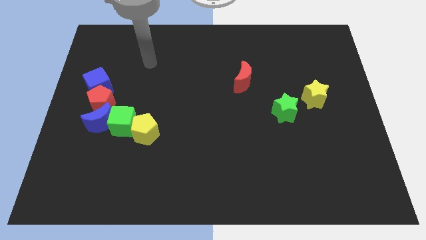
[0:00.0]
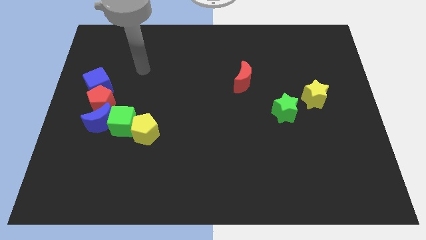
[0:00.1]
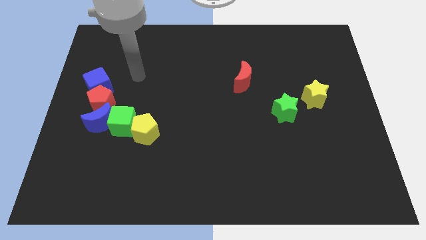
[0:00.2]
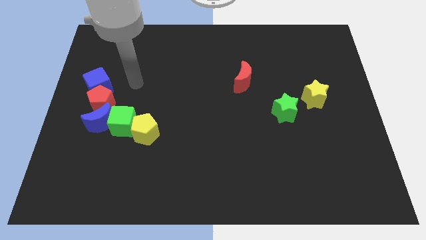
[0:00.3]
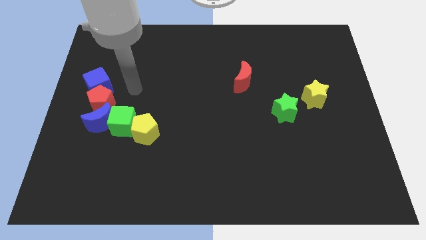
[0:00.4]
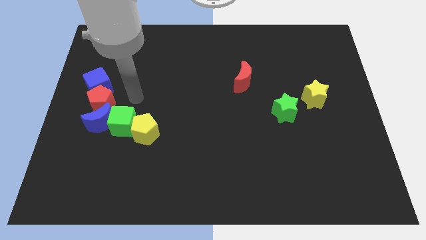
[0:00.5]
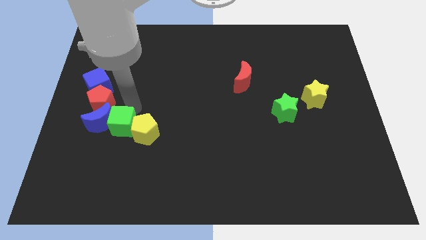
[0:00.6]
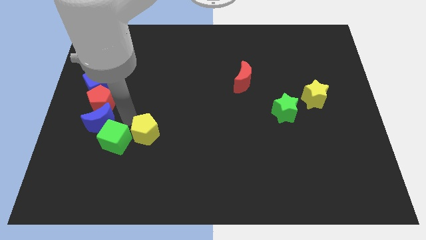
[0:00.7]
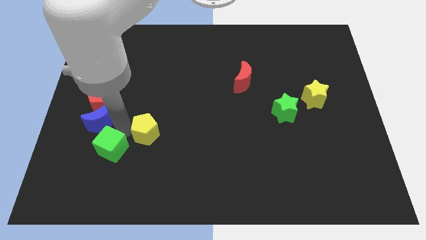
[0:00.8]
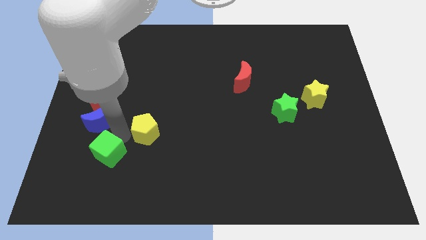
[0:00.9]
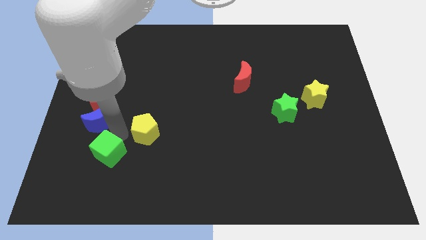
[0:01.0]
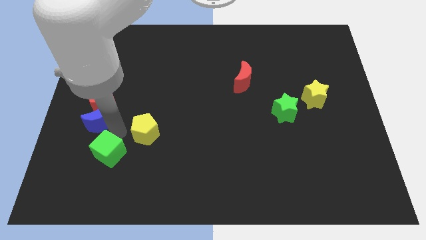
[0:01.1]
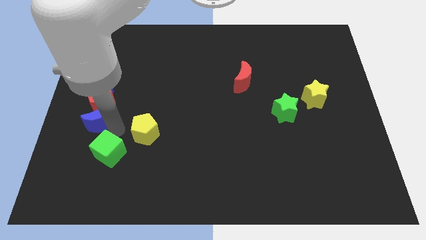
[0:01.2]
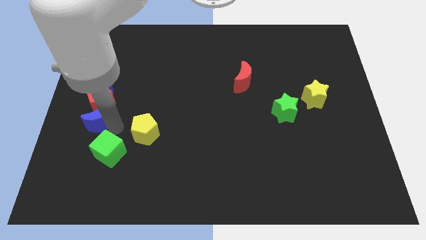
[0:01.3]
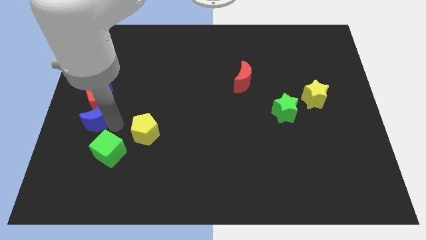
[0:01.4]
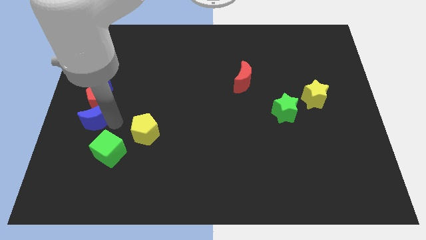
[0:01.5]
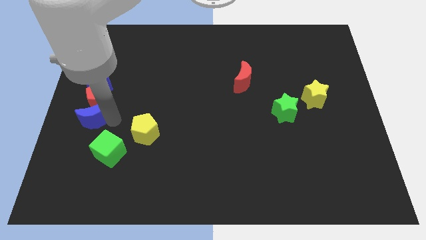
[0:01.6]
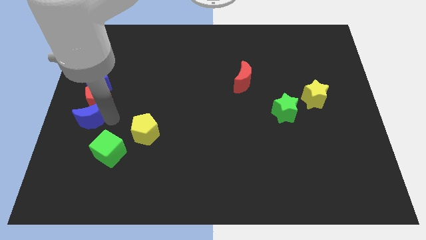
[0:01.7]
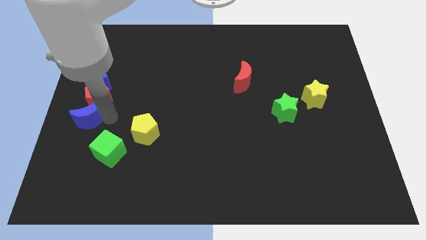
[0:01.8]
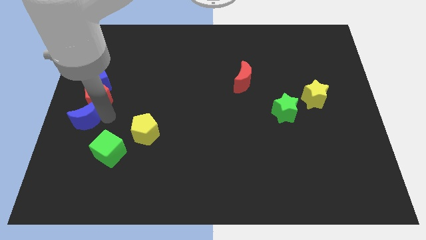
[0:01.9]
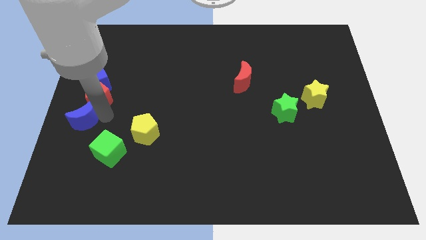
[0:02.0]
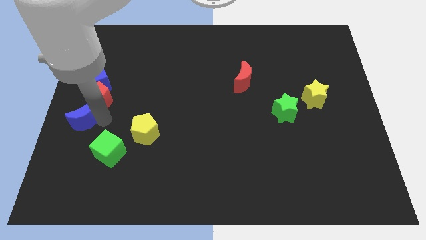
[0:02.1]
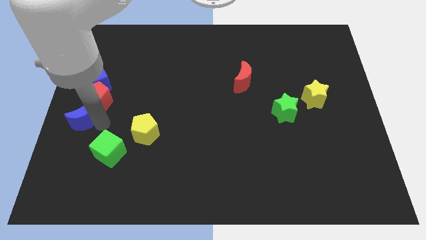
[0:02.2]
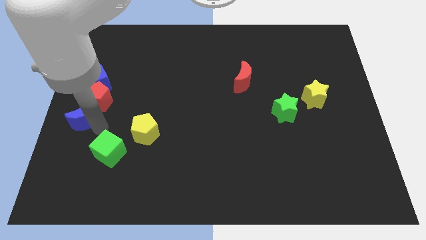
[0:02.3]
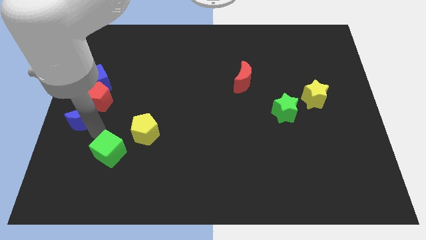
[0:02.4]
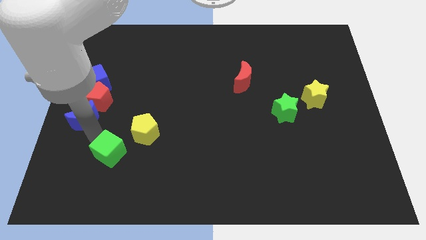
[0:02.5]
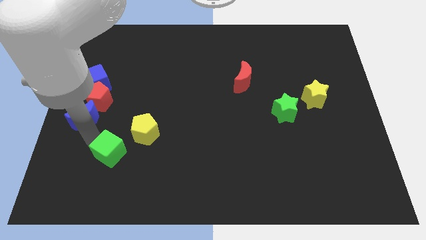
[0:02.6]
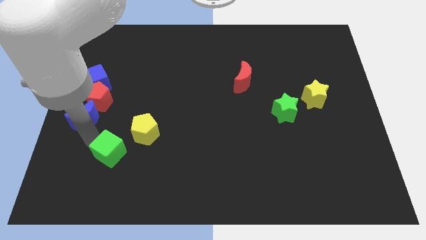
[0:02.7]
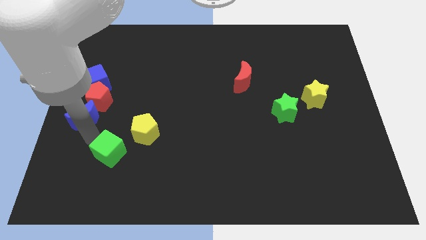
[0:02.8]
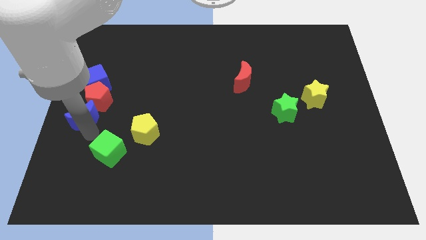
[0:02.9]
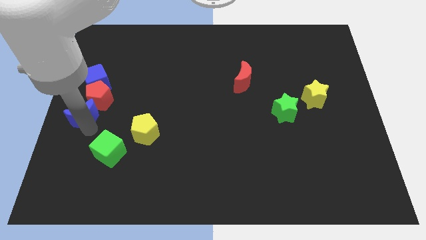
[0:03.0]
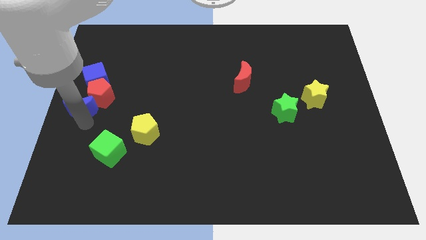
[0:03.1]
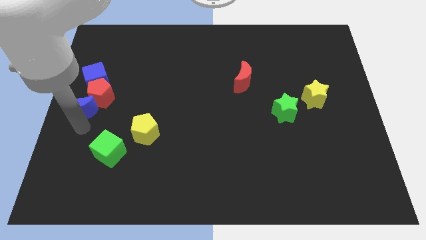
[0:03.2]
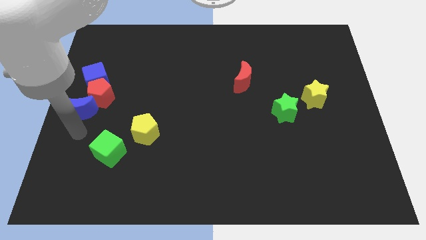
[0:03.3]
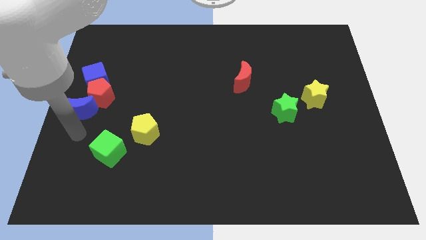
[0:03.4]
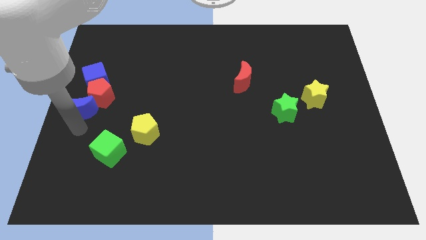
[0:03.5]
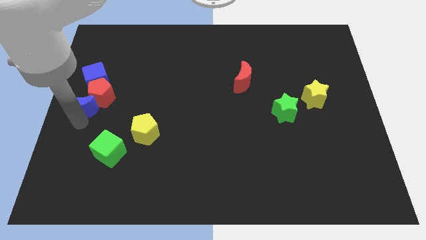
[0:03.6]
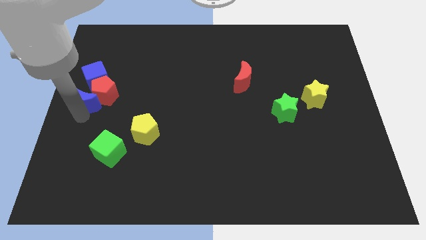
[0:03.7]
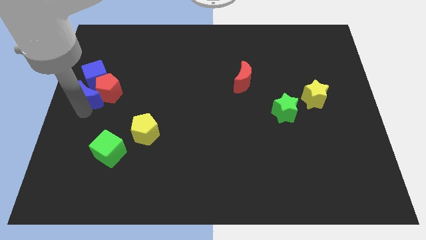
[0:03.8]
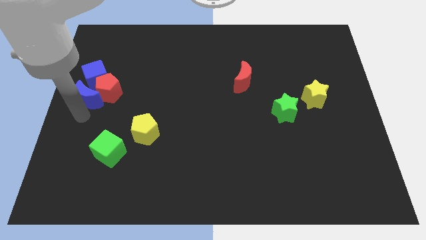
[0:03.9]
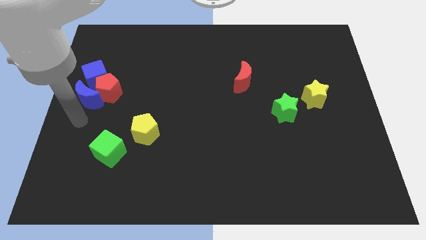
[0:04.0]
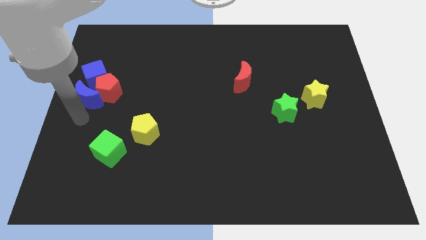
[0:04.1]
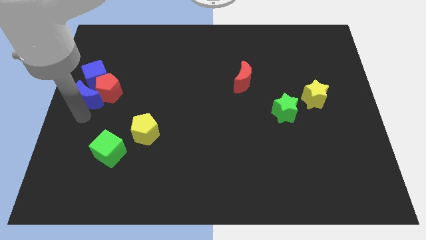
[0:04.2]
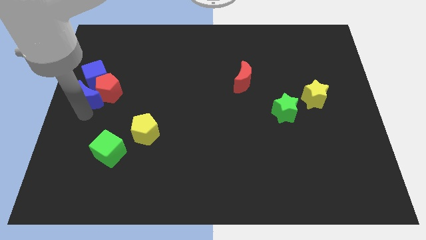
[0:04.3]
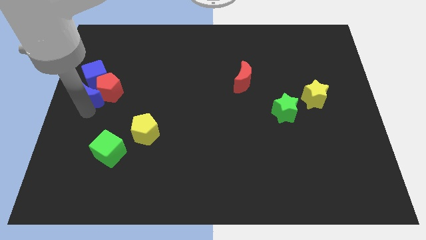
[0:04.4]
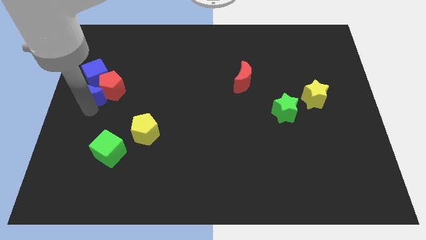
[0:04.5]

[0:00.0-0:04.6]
put the blue moon close to the blue cube

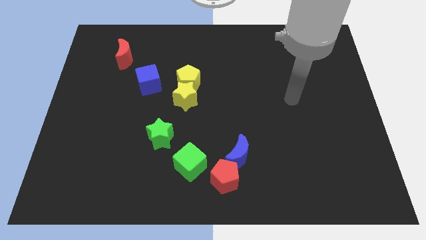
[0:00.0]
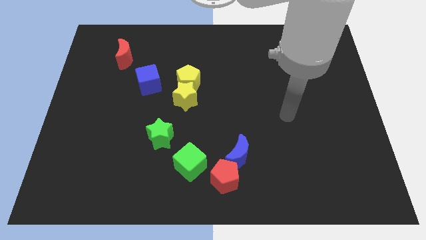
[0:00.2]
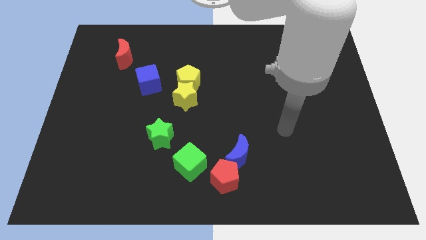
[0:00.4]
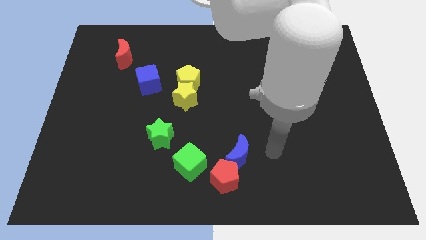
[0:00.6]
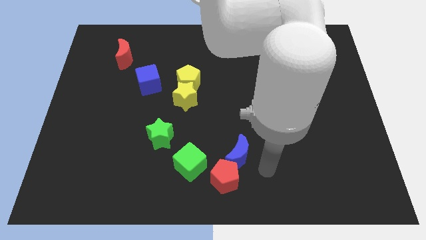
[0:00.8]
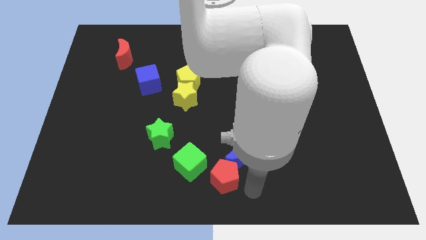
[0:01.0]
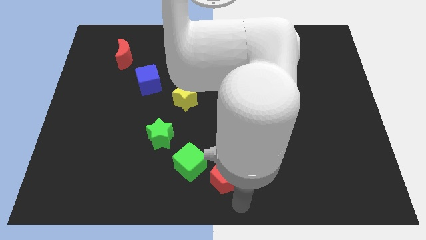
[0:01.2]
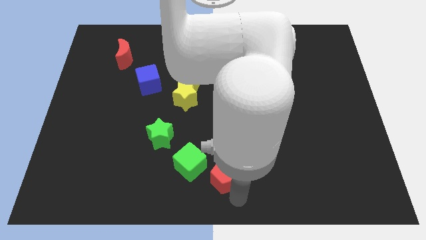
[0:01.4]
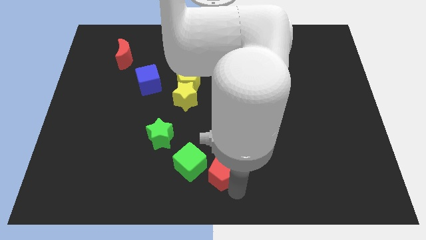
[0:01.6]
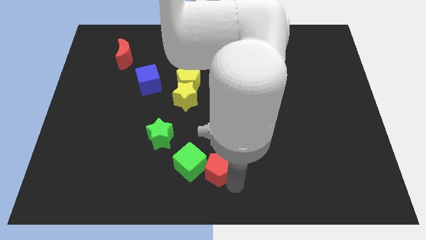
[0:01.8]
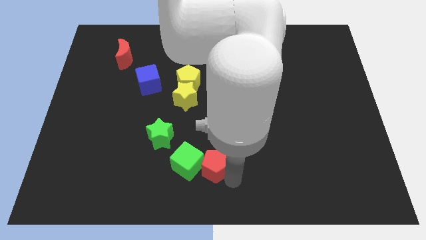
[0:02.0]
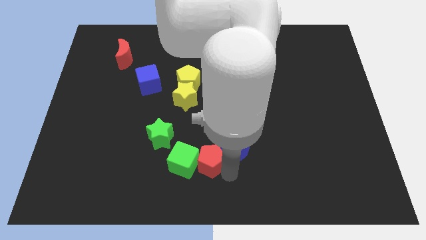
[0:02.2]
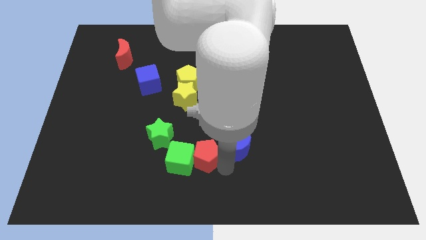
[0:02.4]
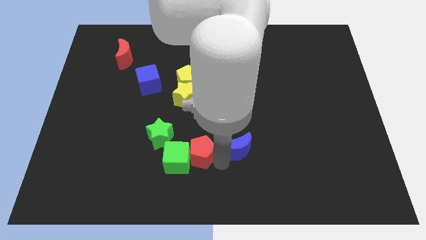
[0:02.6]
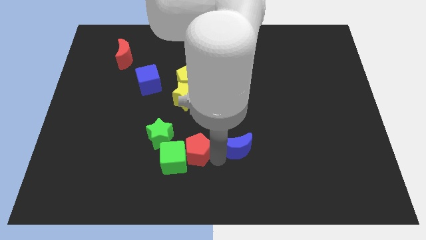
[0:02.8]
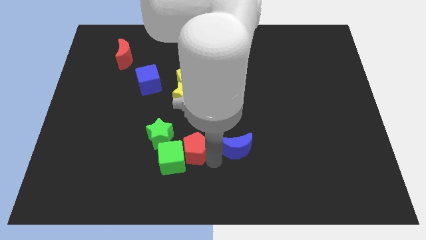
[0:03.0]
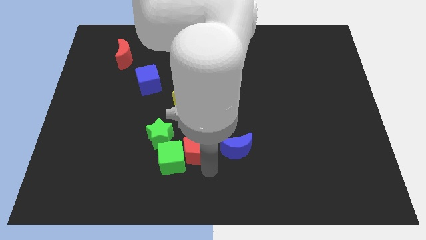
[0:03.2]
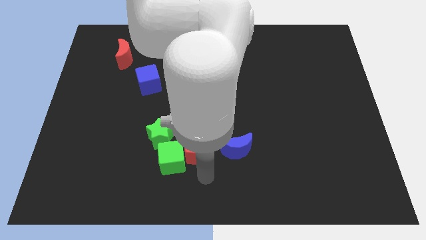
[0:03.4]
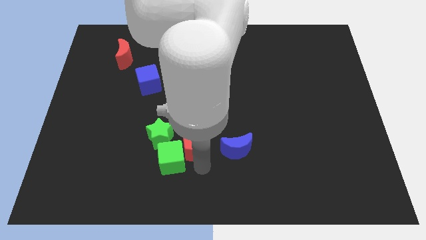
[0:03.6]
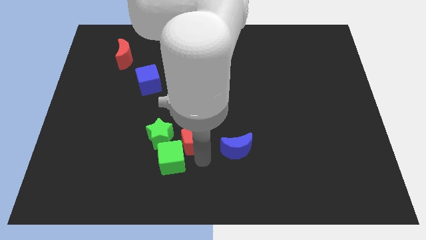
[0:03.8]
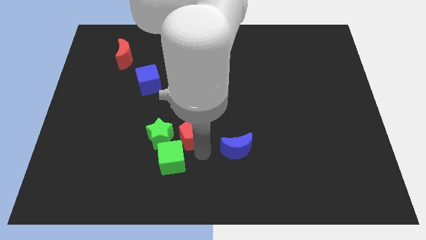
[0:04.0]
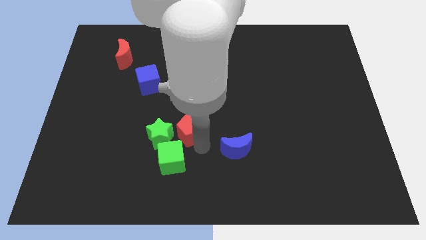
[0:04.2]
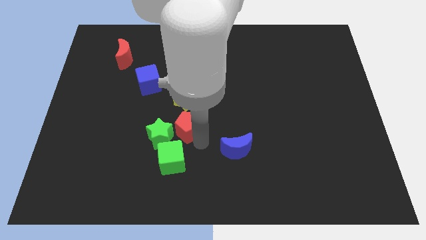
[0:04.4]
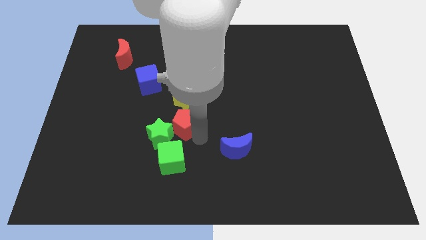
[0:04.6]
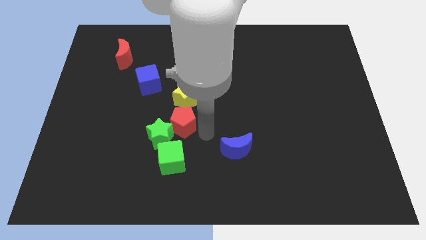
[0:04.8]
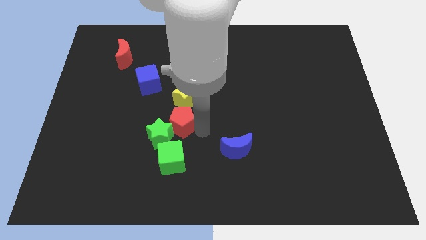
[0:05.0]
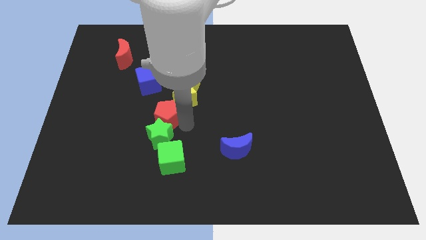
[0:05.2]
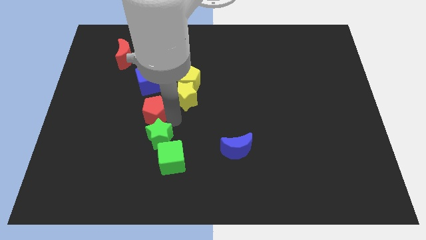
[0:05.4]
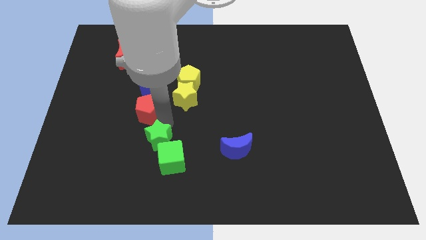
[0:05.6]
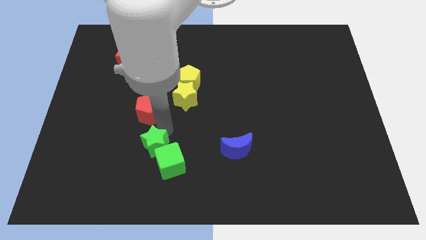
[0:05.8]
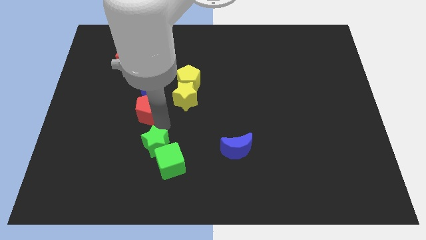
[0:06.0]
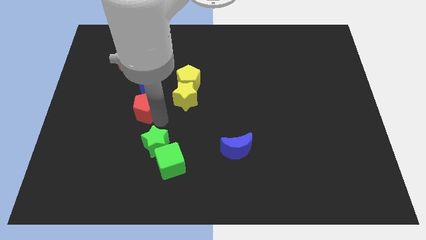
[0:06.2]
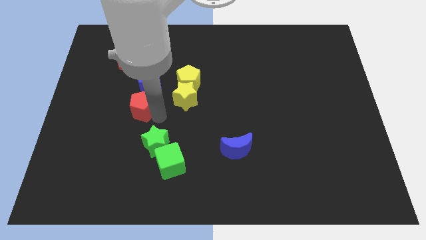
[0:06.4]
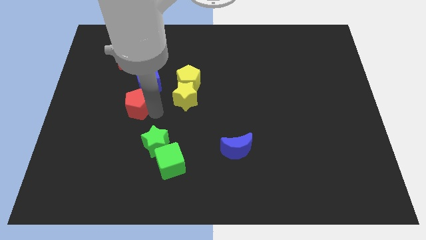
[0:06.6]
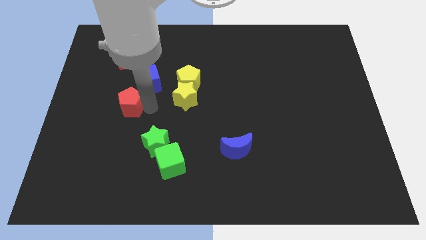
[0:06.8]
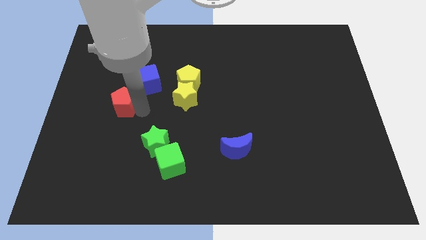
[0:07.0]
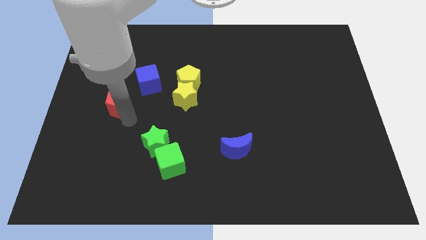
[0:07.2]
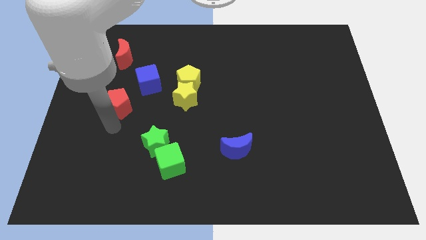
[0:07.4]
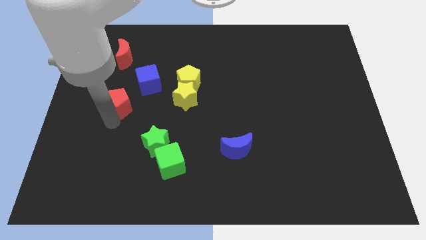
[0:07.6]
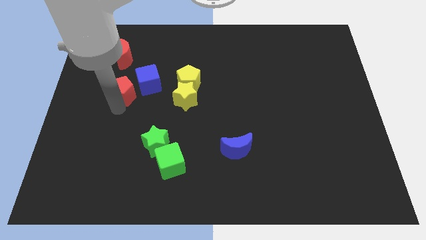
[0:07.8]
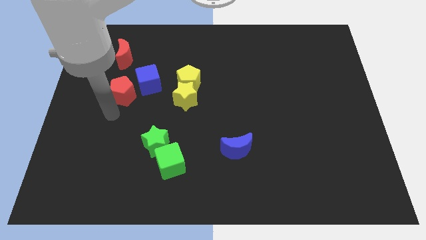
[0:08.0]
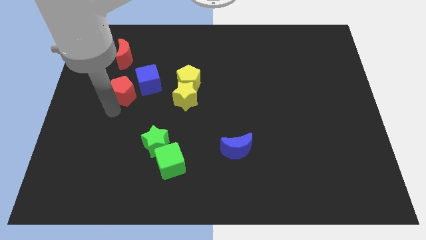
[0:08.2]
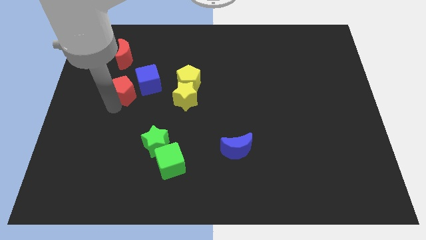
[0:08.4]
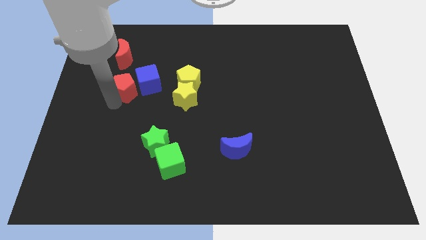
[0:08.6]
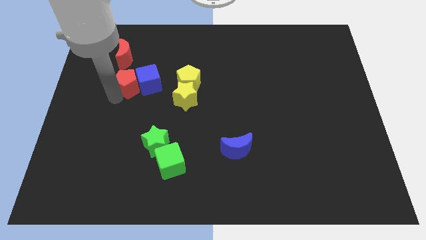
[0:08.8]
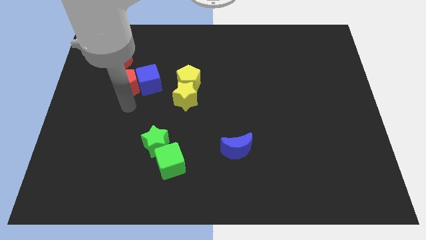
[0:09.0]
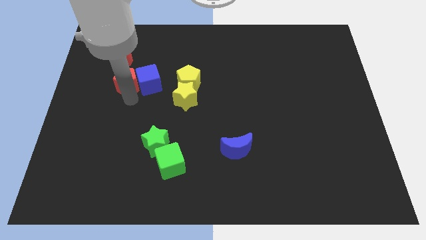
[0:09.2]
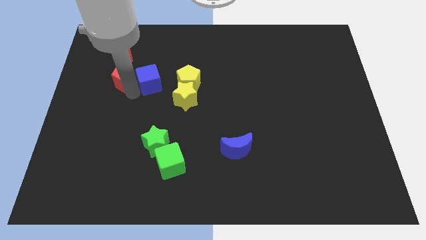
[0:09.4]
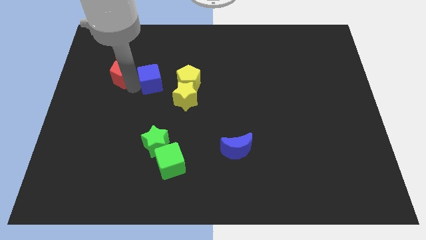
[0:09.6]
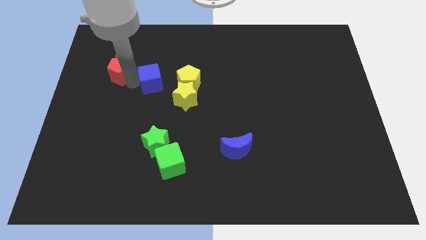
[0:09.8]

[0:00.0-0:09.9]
move the red pentagon to the red moon
